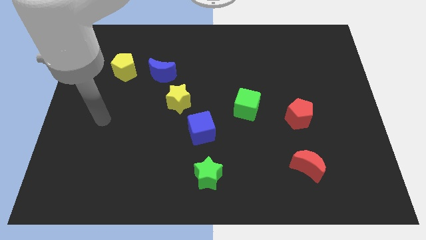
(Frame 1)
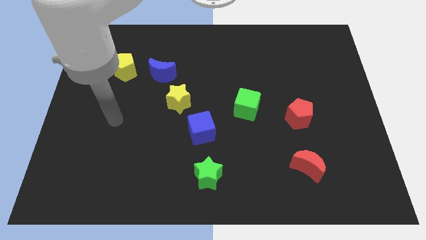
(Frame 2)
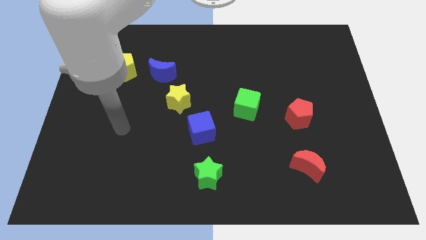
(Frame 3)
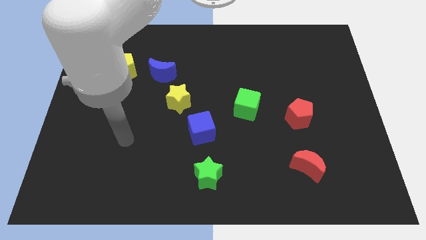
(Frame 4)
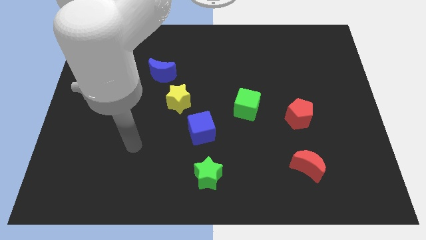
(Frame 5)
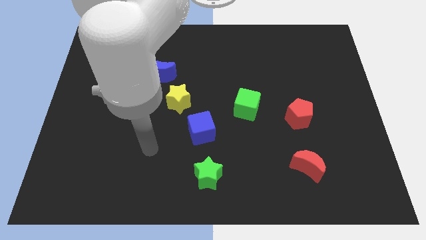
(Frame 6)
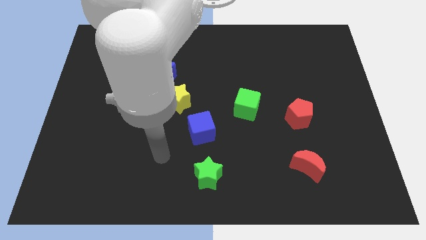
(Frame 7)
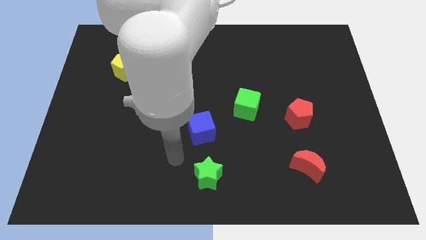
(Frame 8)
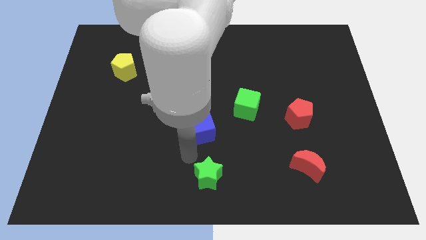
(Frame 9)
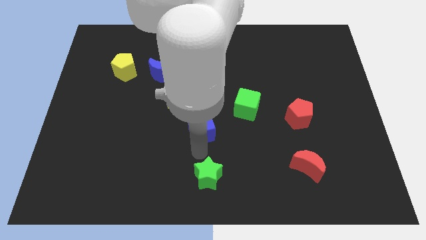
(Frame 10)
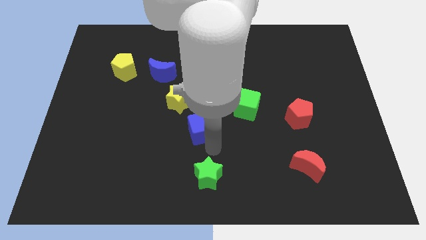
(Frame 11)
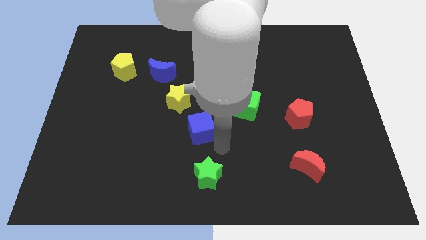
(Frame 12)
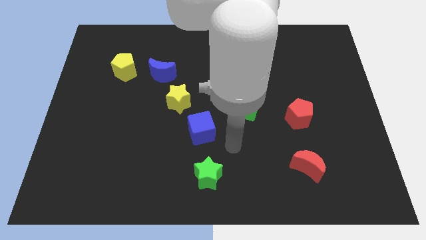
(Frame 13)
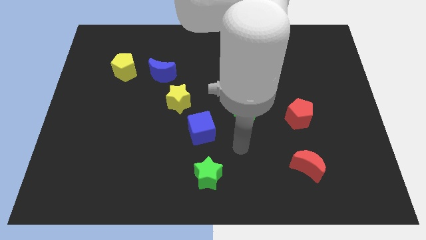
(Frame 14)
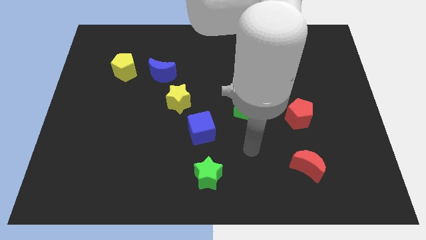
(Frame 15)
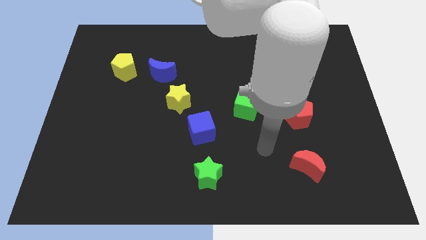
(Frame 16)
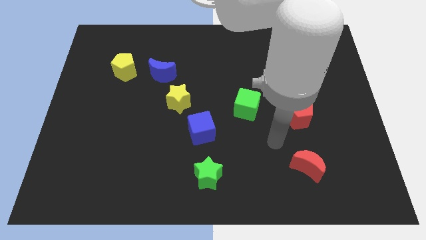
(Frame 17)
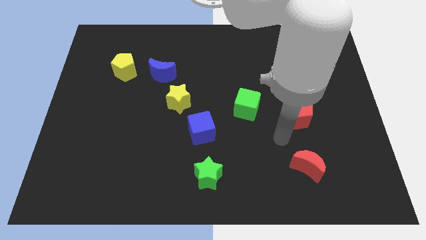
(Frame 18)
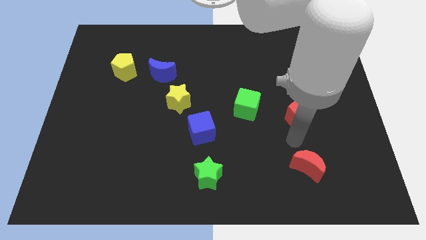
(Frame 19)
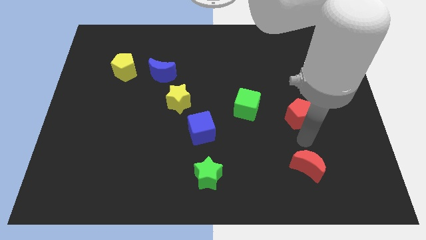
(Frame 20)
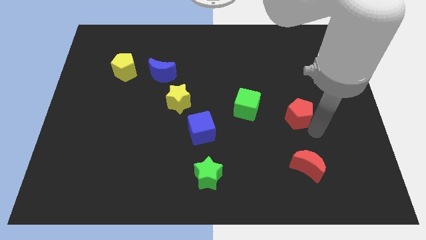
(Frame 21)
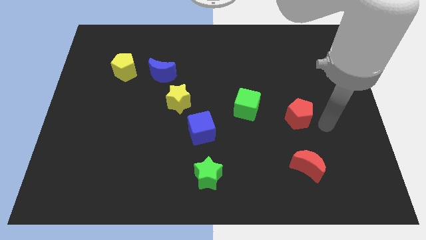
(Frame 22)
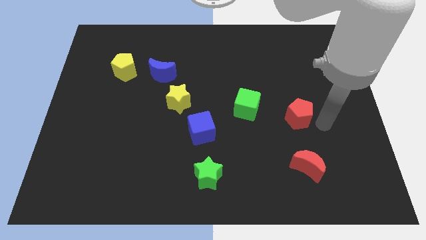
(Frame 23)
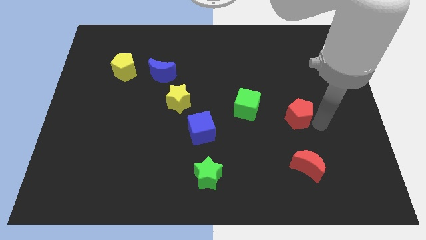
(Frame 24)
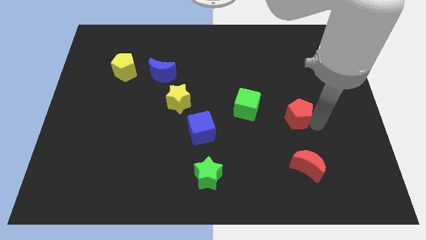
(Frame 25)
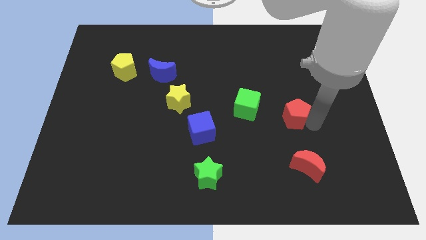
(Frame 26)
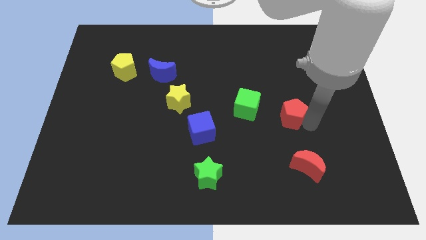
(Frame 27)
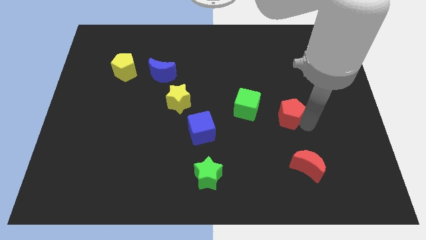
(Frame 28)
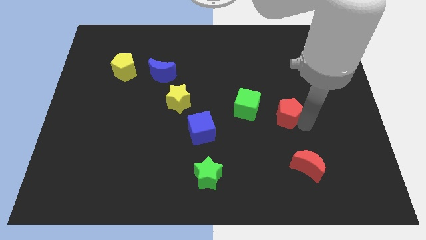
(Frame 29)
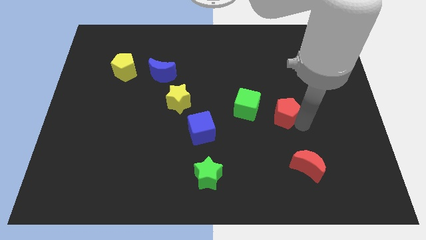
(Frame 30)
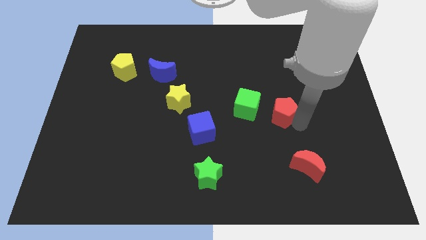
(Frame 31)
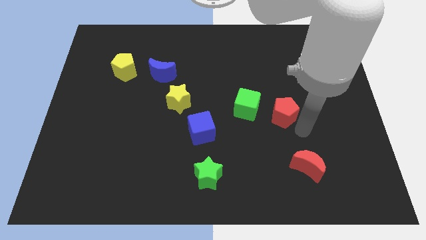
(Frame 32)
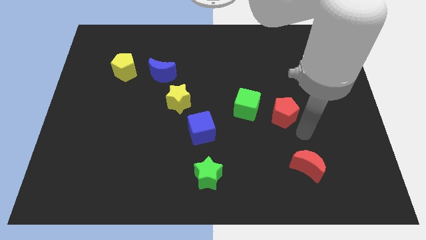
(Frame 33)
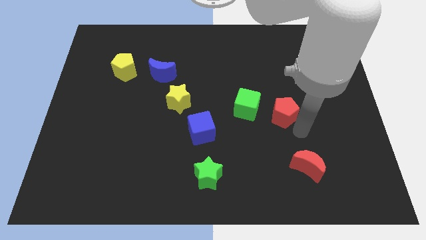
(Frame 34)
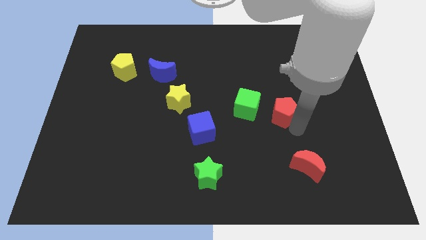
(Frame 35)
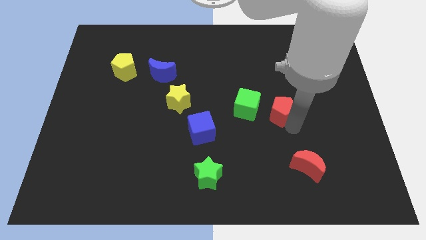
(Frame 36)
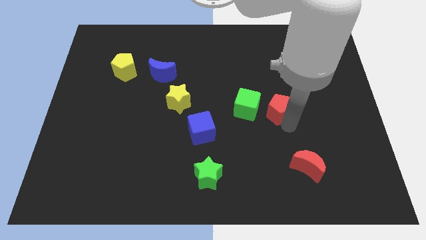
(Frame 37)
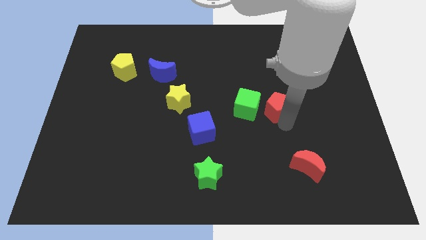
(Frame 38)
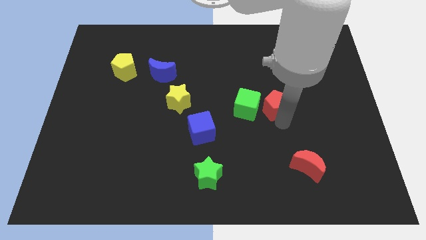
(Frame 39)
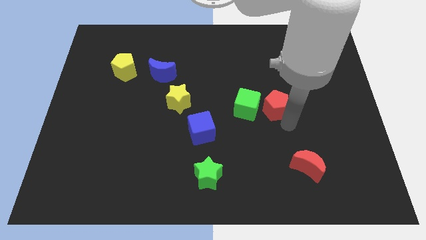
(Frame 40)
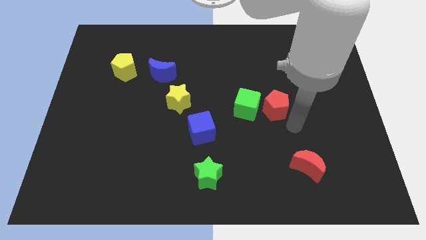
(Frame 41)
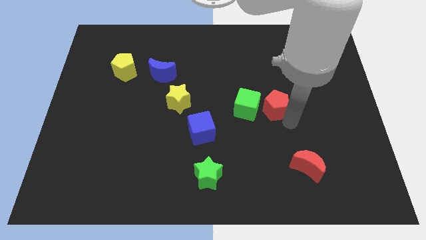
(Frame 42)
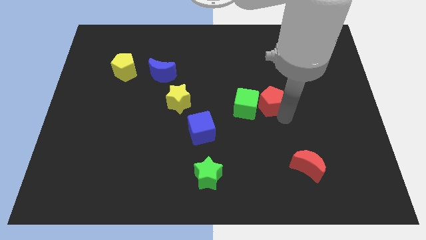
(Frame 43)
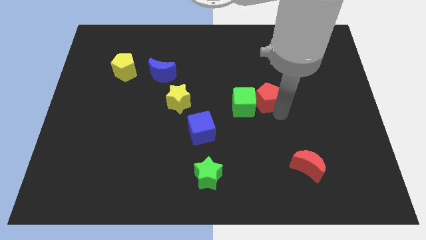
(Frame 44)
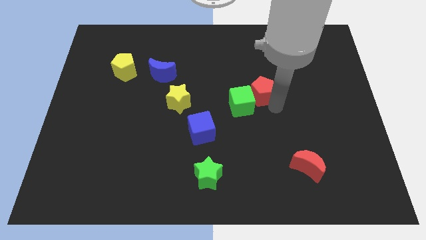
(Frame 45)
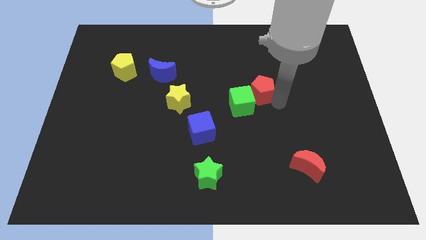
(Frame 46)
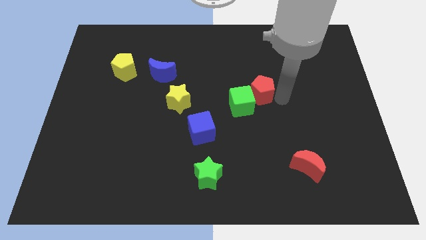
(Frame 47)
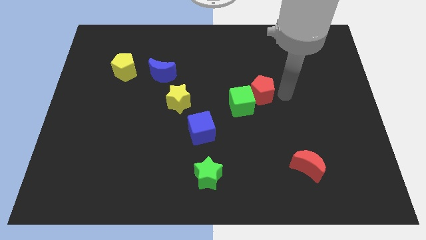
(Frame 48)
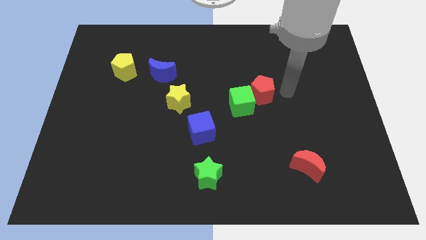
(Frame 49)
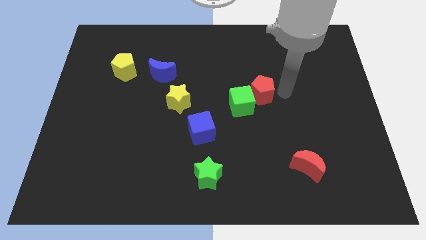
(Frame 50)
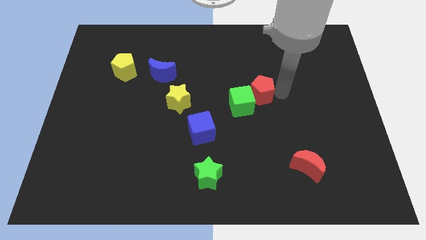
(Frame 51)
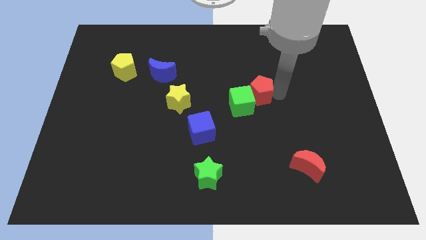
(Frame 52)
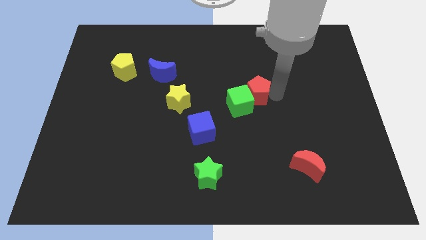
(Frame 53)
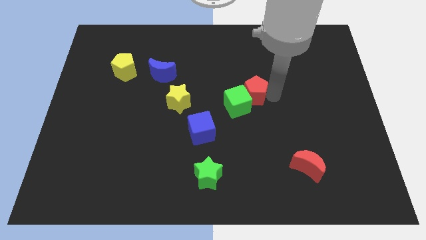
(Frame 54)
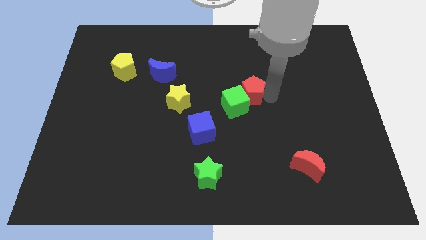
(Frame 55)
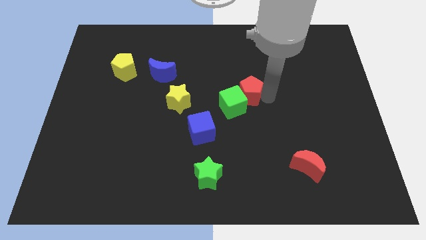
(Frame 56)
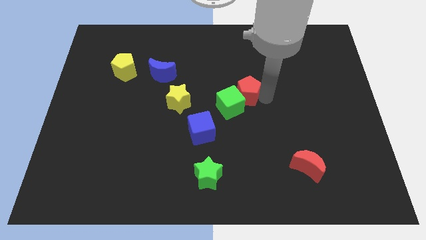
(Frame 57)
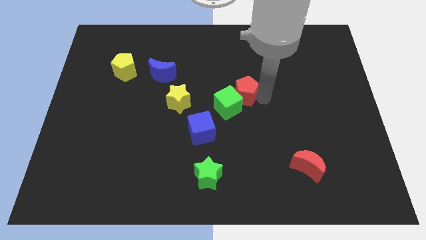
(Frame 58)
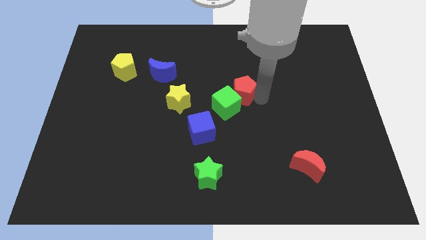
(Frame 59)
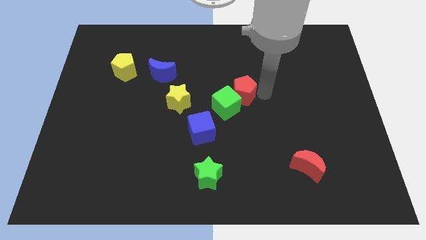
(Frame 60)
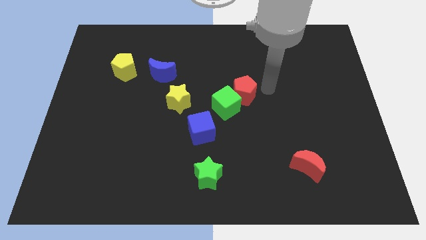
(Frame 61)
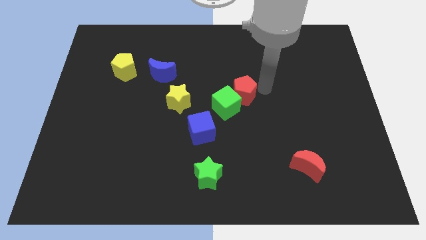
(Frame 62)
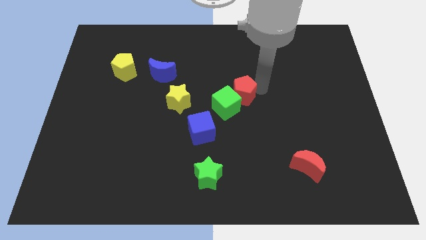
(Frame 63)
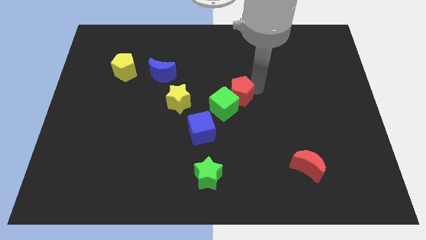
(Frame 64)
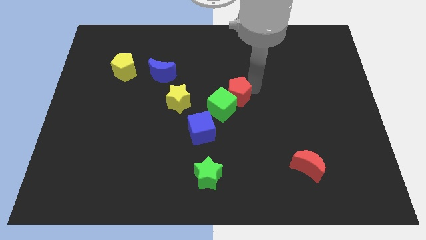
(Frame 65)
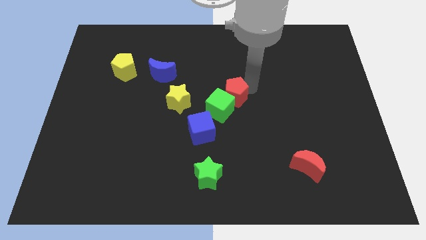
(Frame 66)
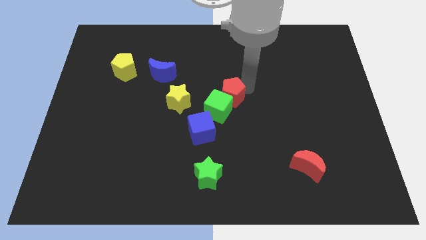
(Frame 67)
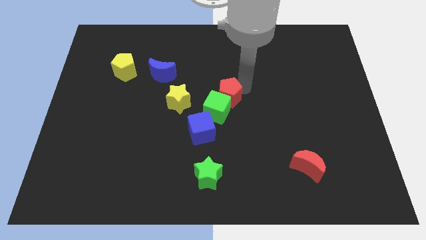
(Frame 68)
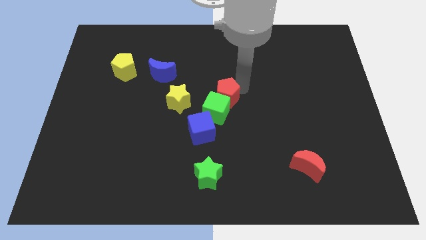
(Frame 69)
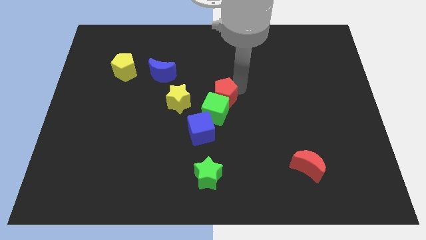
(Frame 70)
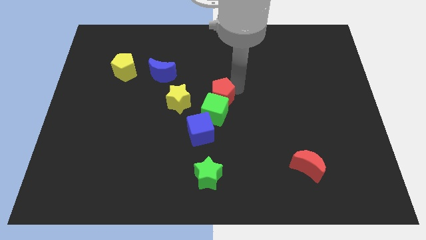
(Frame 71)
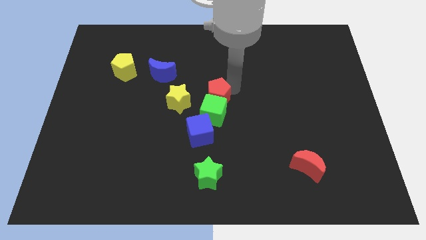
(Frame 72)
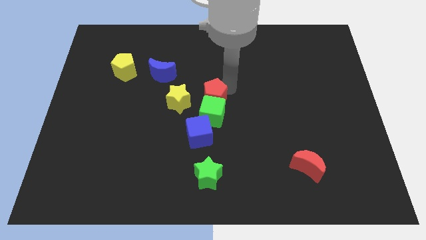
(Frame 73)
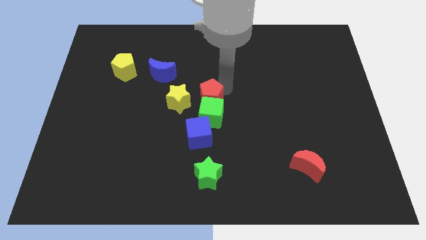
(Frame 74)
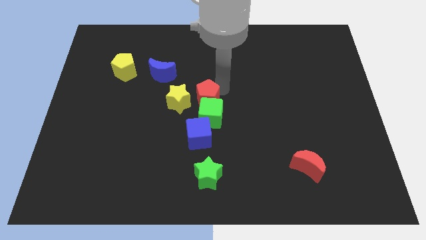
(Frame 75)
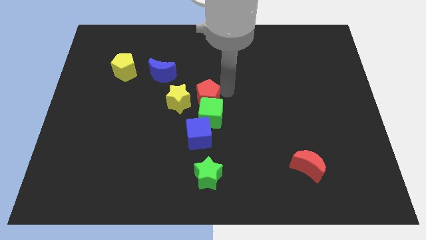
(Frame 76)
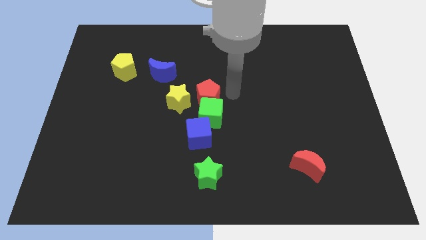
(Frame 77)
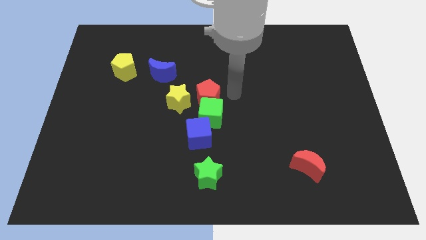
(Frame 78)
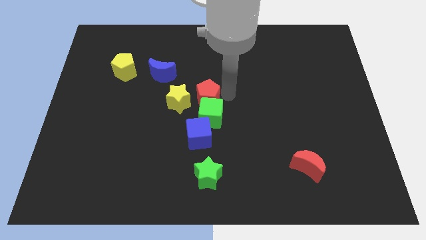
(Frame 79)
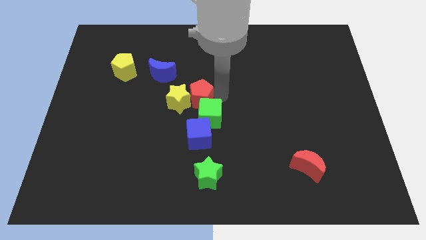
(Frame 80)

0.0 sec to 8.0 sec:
move the red pentagon close to the yellow star
